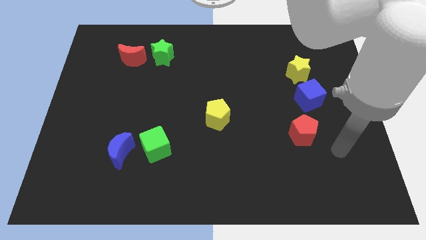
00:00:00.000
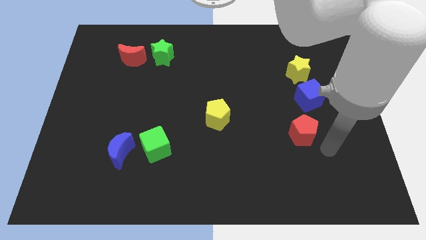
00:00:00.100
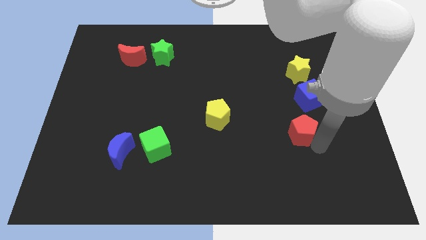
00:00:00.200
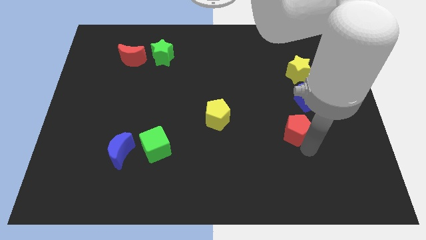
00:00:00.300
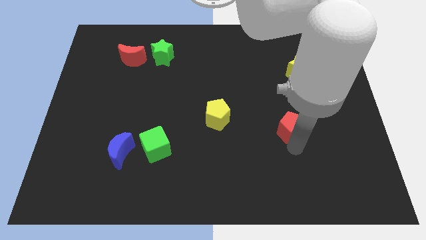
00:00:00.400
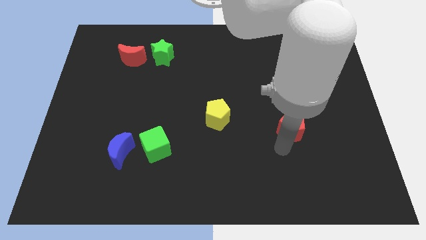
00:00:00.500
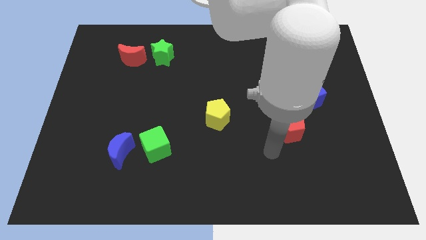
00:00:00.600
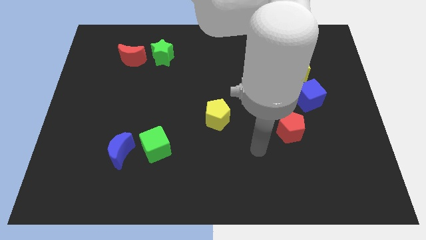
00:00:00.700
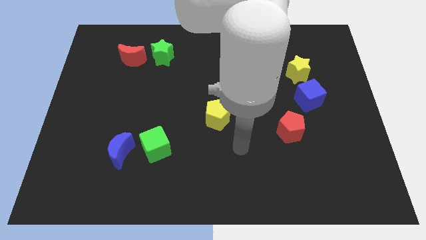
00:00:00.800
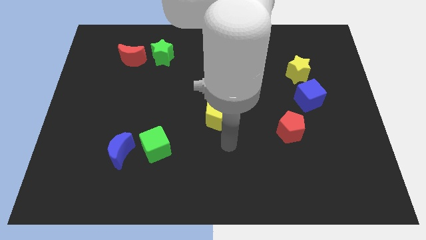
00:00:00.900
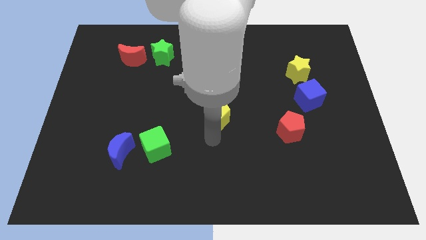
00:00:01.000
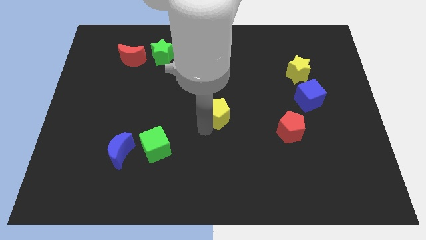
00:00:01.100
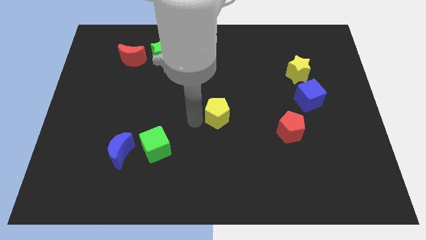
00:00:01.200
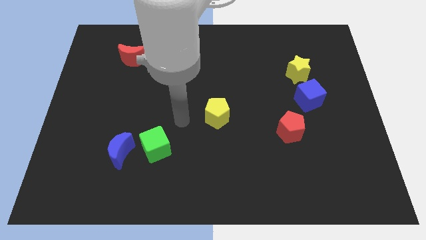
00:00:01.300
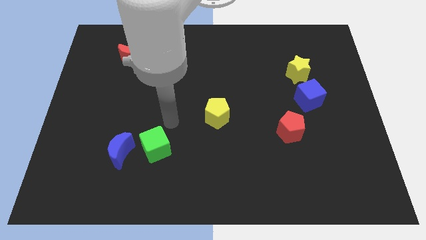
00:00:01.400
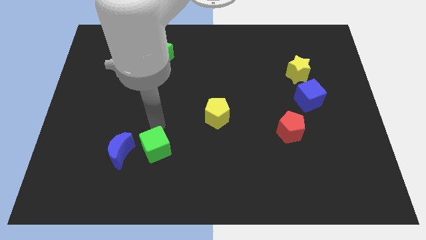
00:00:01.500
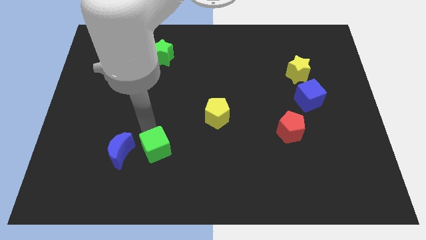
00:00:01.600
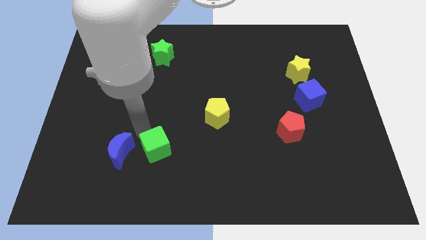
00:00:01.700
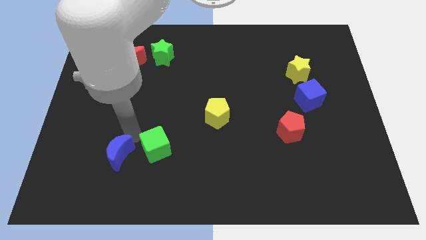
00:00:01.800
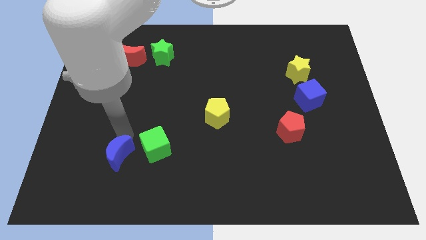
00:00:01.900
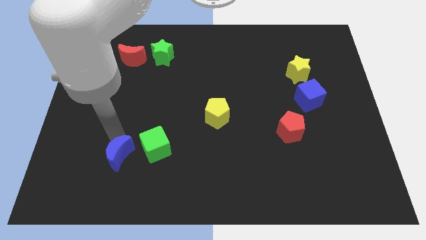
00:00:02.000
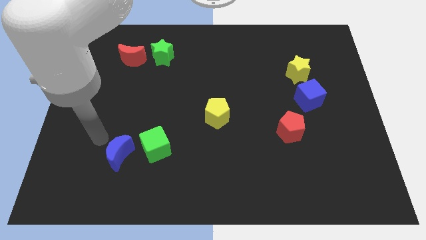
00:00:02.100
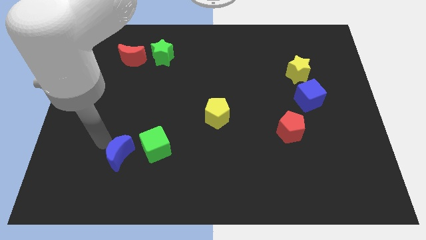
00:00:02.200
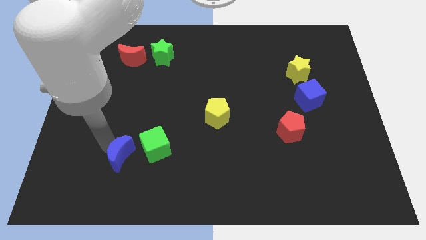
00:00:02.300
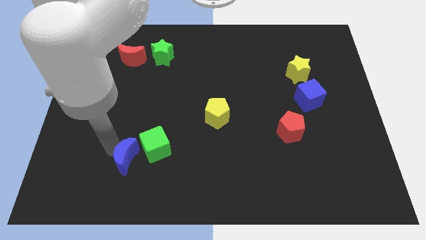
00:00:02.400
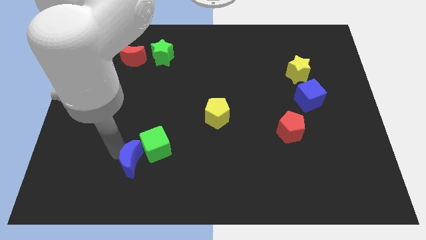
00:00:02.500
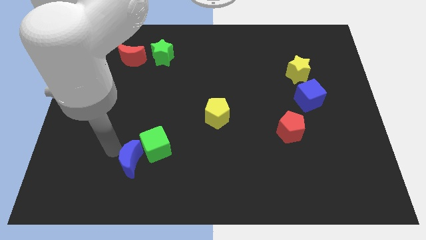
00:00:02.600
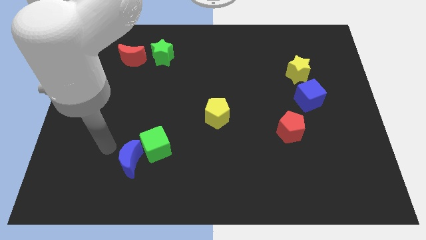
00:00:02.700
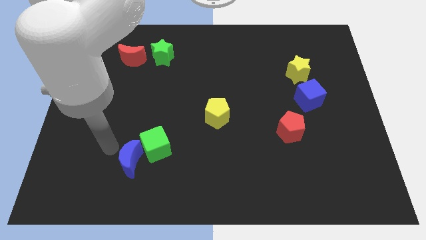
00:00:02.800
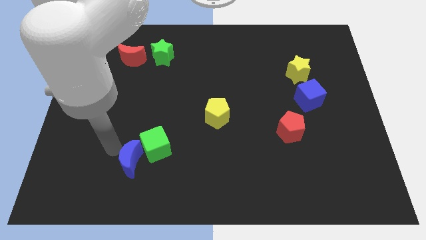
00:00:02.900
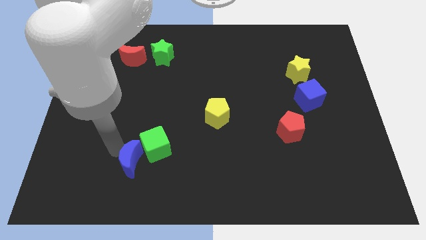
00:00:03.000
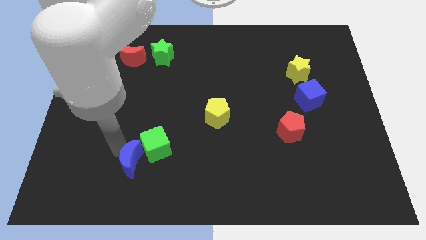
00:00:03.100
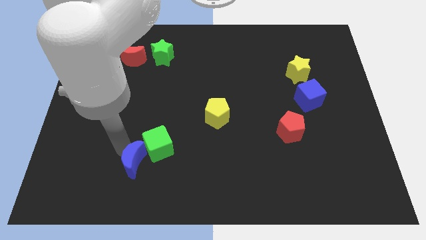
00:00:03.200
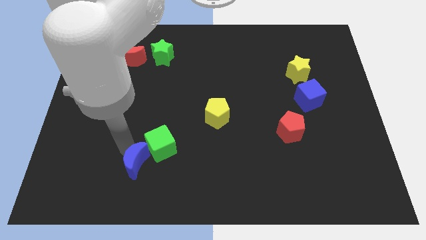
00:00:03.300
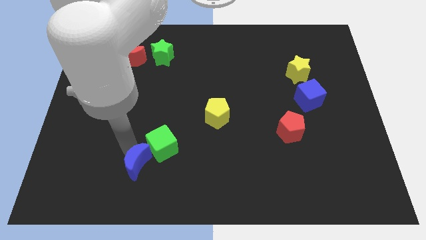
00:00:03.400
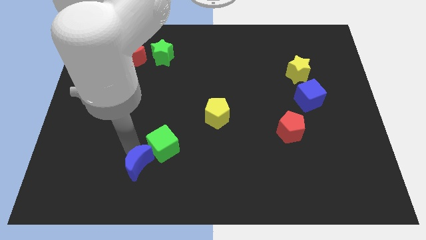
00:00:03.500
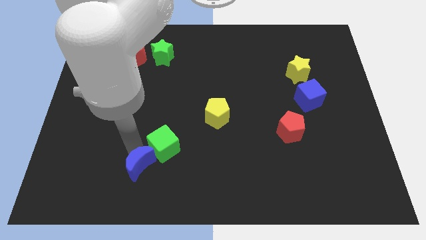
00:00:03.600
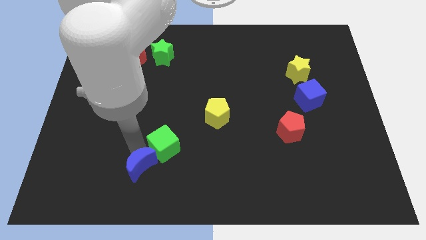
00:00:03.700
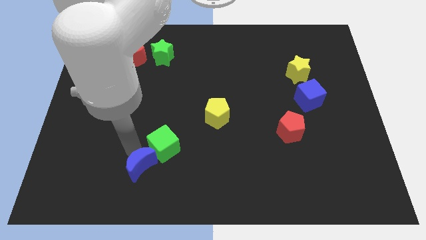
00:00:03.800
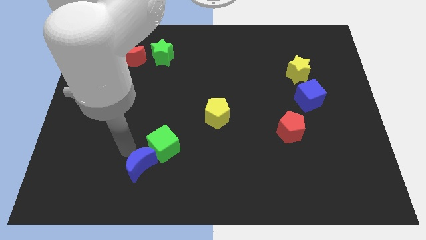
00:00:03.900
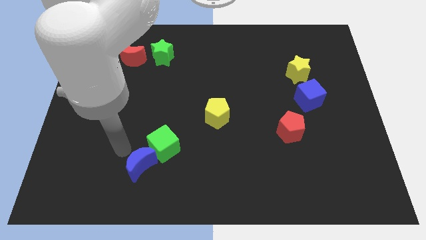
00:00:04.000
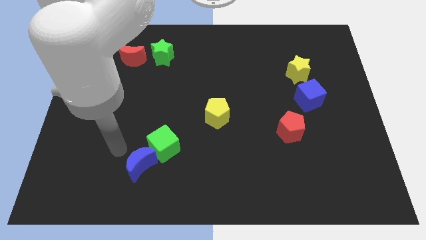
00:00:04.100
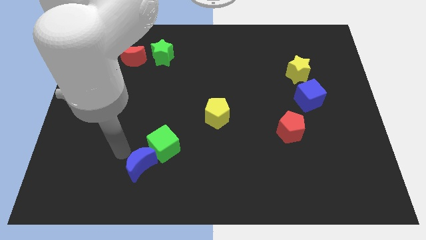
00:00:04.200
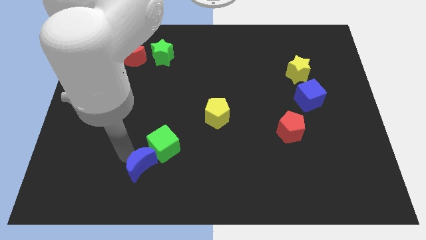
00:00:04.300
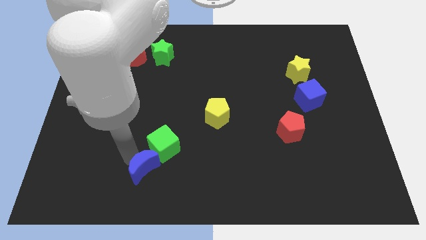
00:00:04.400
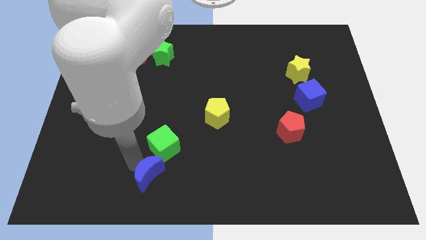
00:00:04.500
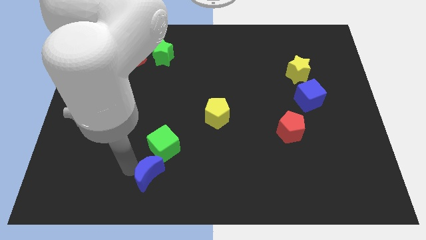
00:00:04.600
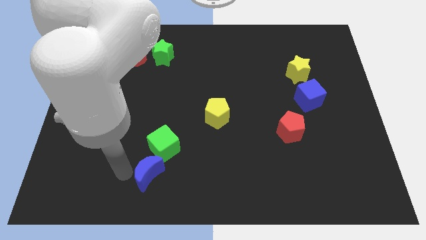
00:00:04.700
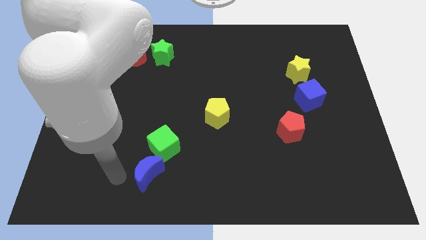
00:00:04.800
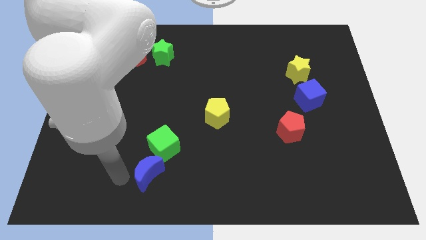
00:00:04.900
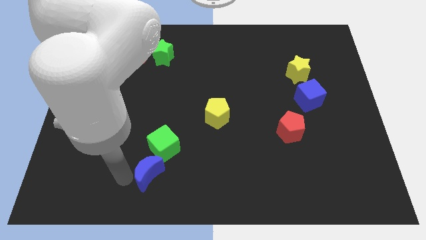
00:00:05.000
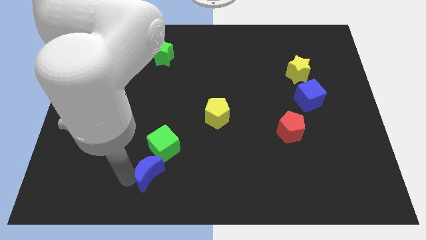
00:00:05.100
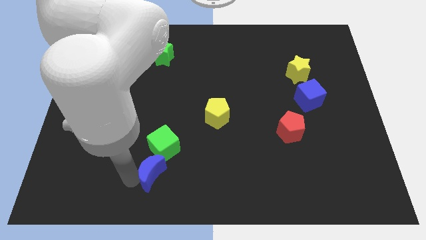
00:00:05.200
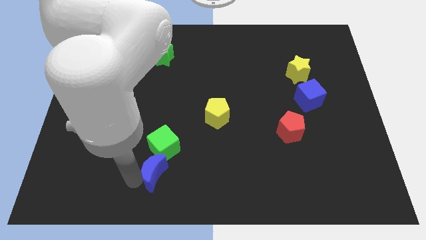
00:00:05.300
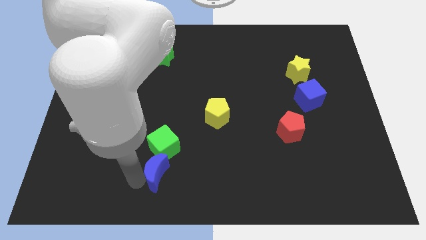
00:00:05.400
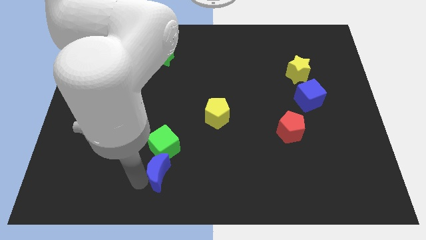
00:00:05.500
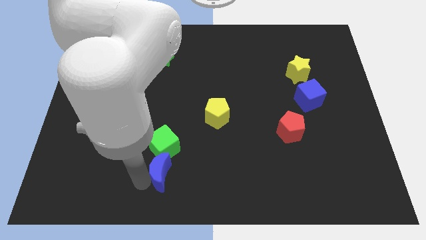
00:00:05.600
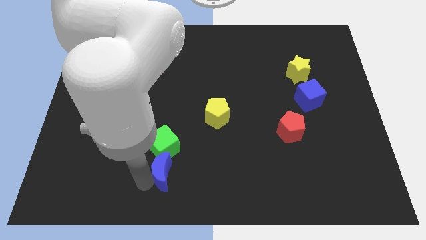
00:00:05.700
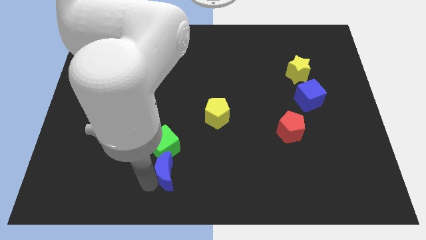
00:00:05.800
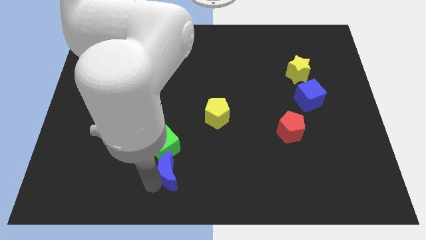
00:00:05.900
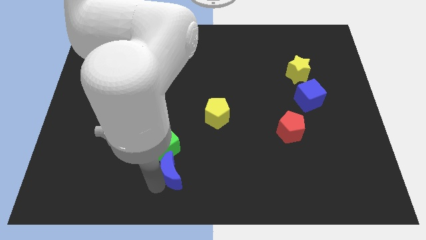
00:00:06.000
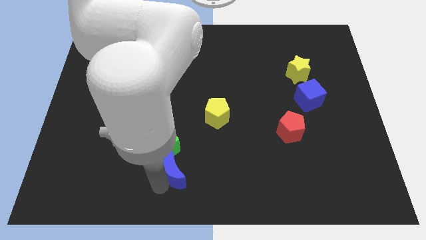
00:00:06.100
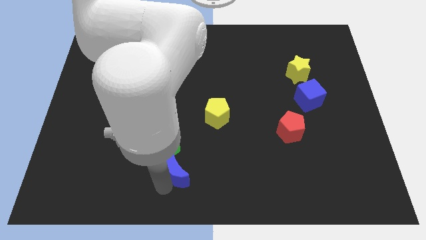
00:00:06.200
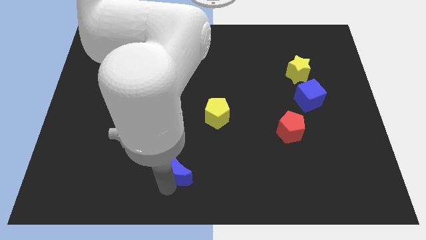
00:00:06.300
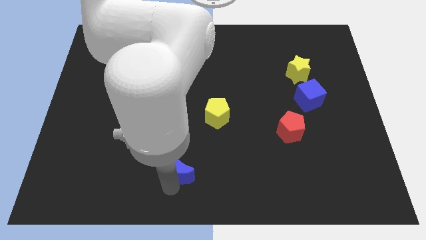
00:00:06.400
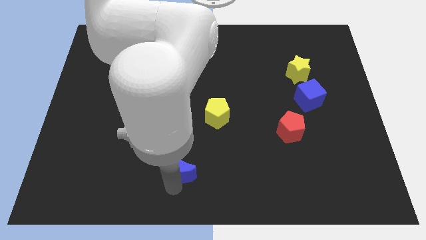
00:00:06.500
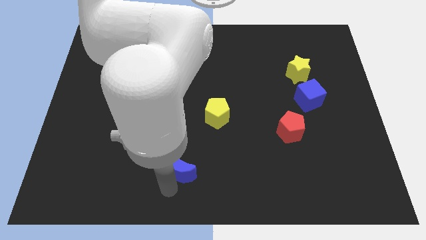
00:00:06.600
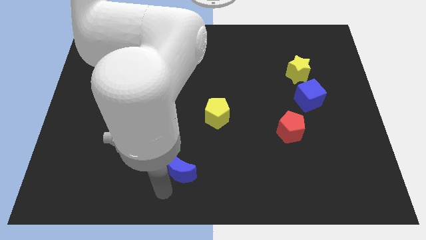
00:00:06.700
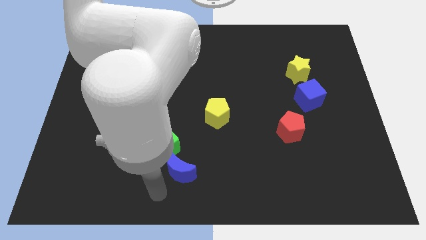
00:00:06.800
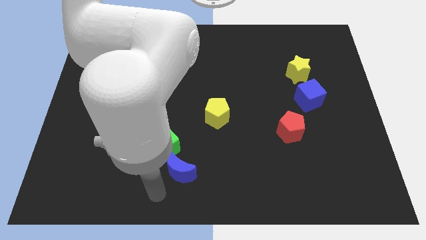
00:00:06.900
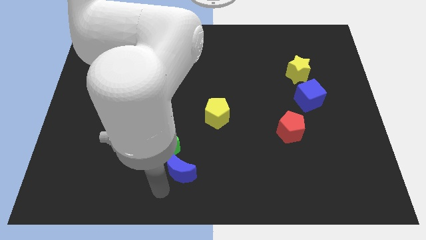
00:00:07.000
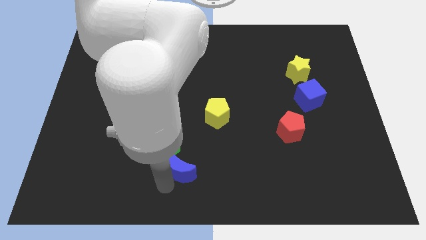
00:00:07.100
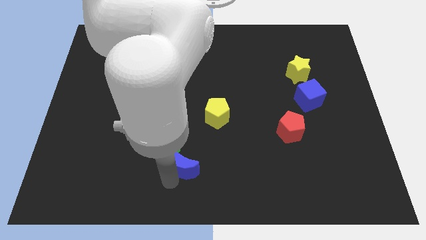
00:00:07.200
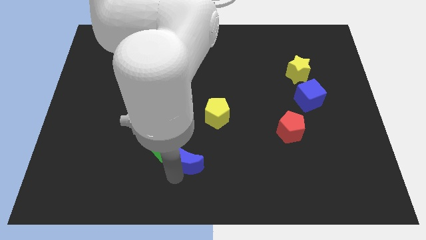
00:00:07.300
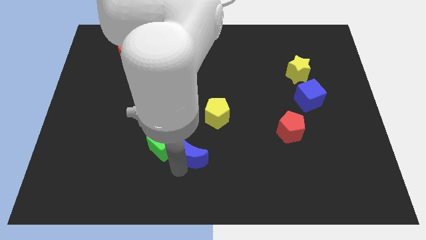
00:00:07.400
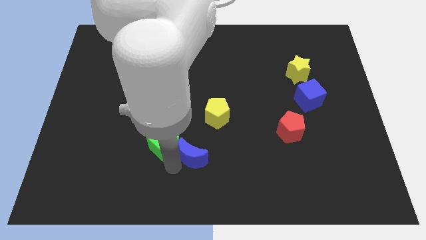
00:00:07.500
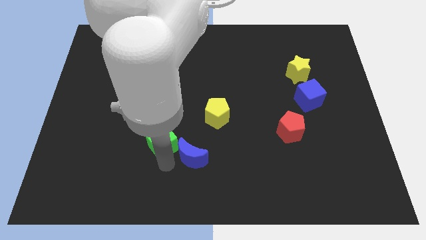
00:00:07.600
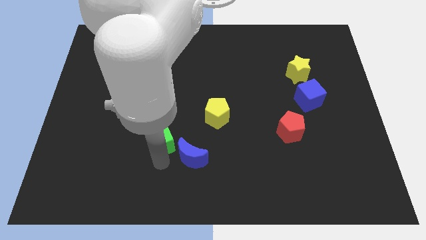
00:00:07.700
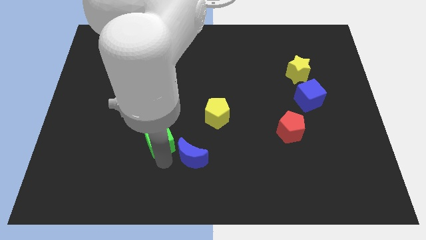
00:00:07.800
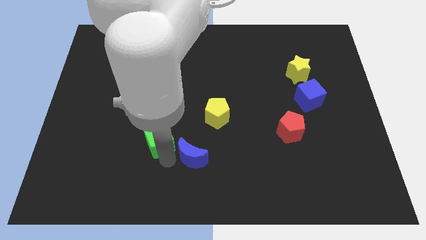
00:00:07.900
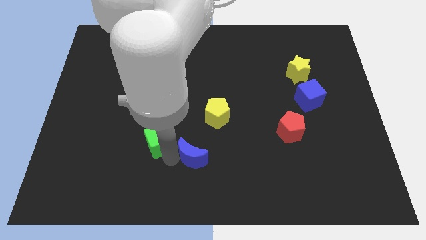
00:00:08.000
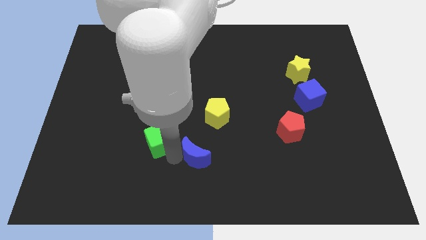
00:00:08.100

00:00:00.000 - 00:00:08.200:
push the blue moon to the bottom side of the yellow pentagon
